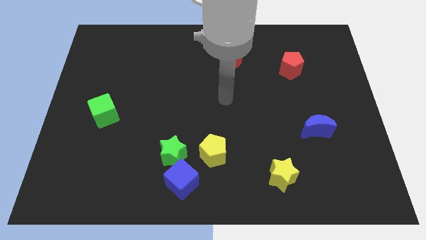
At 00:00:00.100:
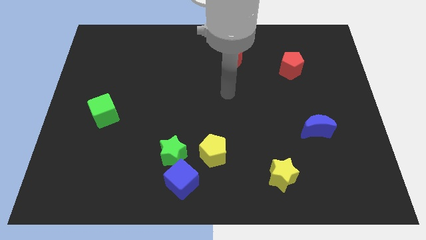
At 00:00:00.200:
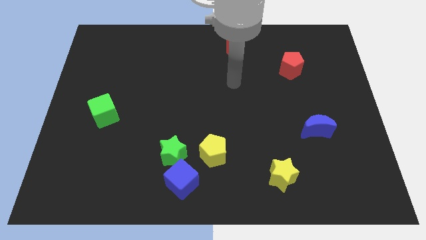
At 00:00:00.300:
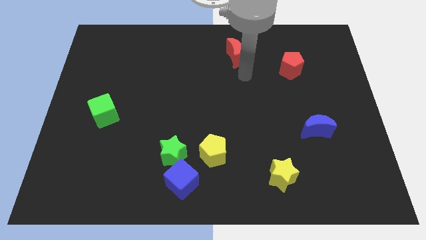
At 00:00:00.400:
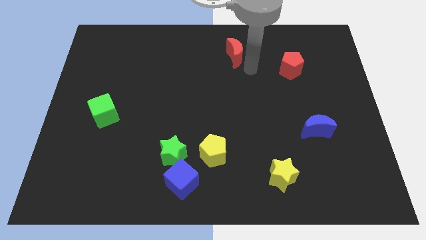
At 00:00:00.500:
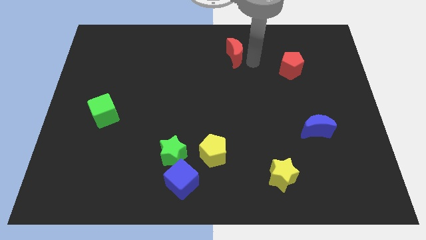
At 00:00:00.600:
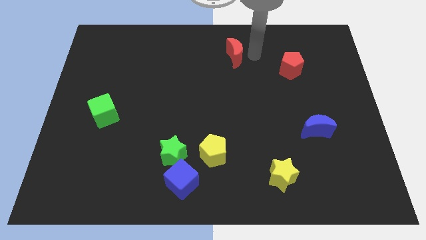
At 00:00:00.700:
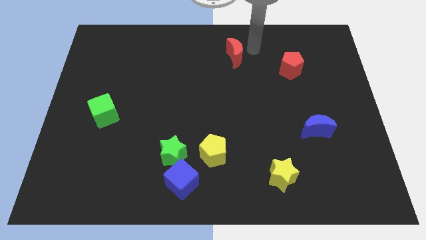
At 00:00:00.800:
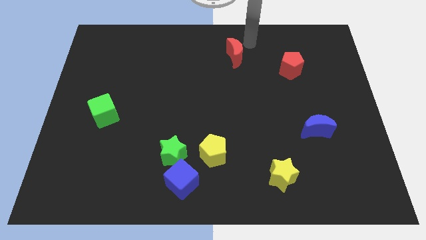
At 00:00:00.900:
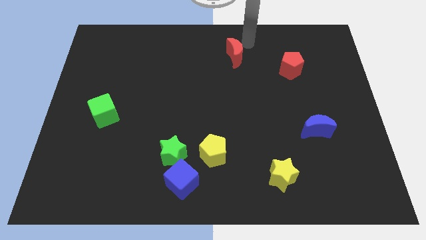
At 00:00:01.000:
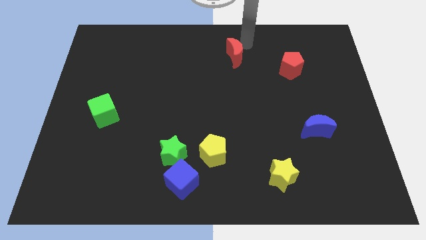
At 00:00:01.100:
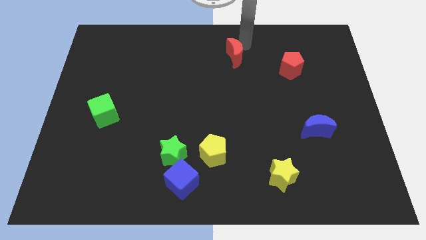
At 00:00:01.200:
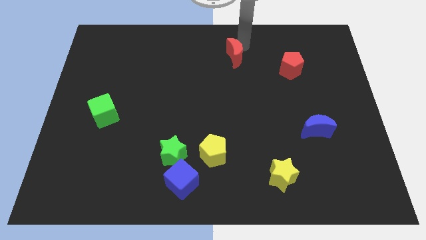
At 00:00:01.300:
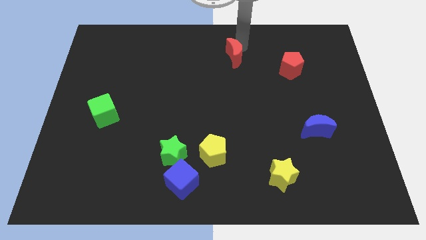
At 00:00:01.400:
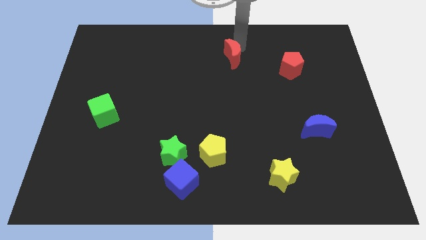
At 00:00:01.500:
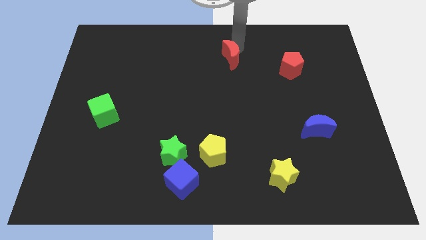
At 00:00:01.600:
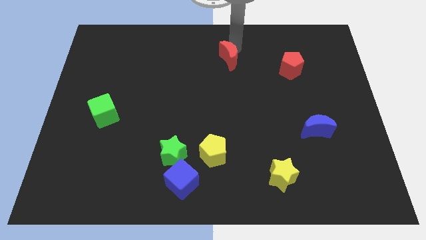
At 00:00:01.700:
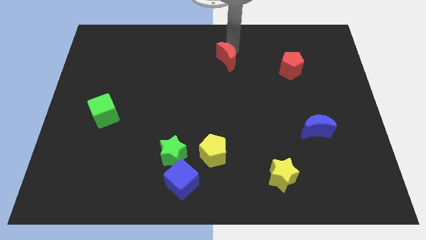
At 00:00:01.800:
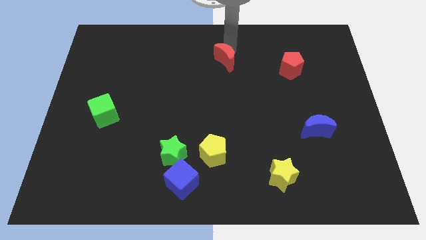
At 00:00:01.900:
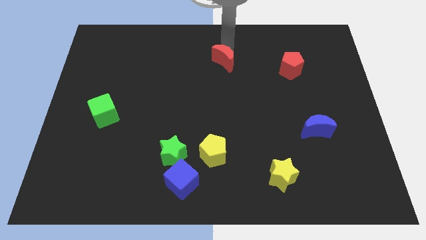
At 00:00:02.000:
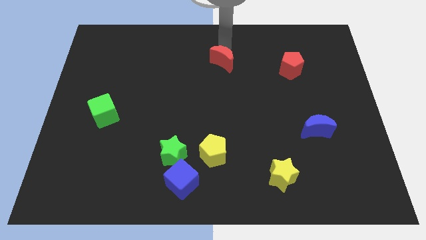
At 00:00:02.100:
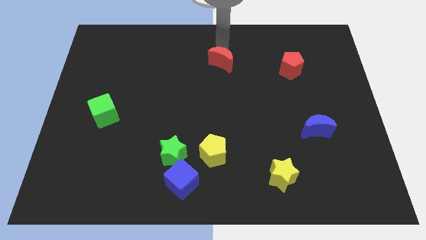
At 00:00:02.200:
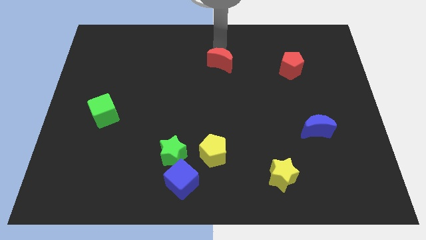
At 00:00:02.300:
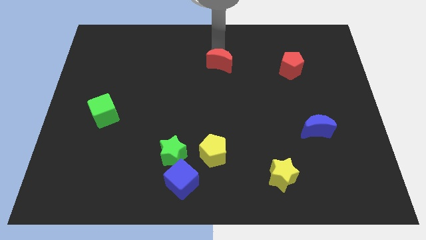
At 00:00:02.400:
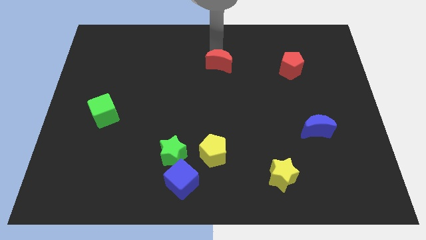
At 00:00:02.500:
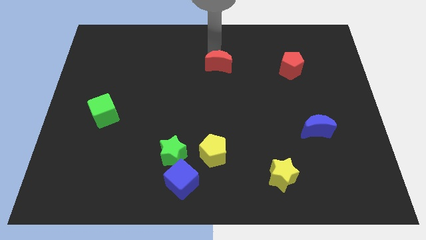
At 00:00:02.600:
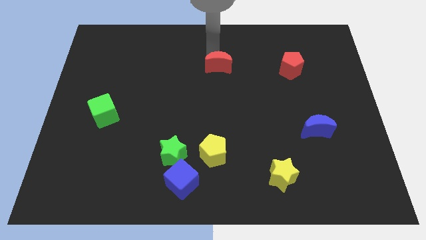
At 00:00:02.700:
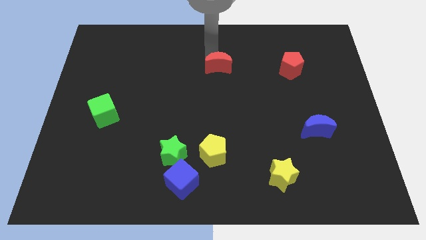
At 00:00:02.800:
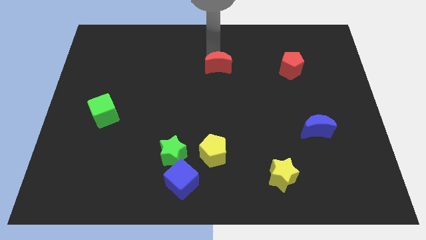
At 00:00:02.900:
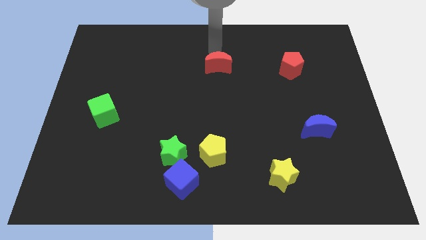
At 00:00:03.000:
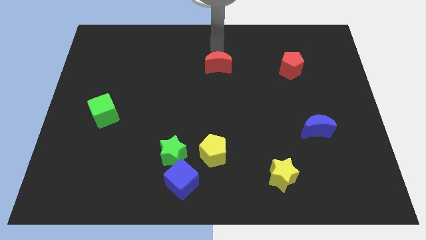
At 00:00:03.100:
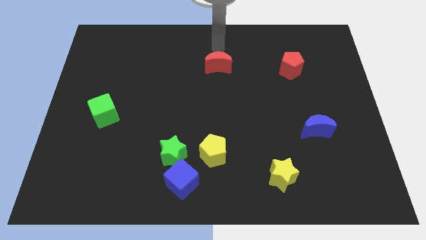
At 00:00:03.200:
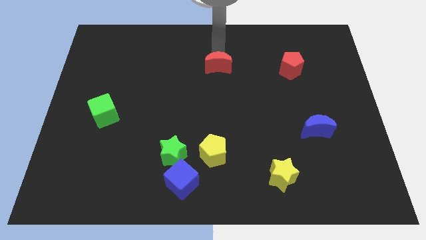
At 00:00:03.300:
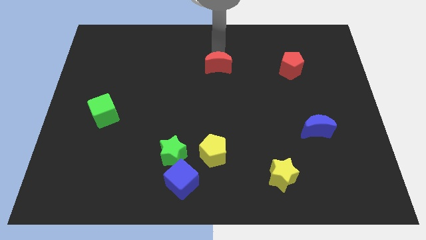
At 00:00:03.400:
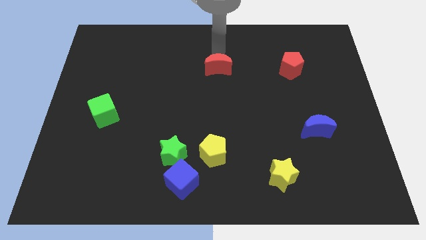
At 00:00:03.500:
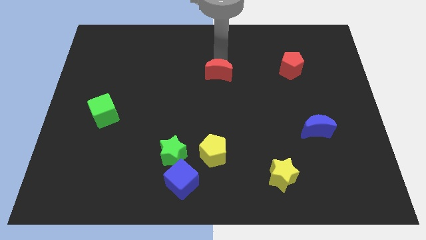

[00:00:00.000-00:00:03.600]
slightly push the red moon down and left

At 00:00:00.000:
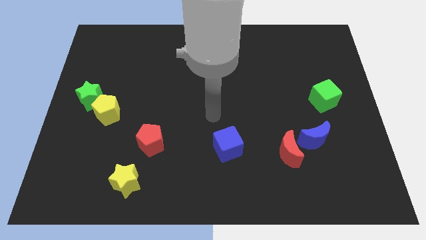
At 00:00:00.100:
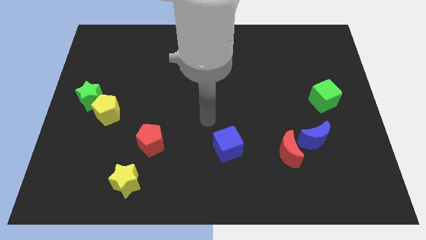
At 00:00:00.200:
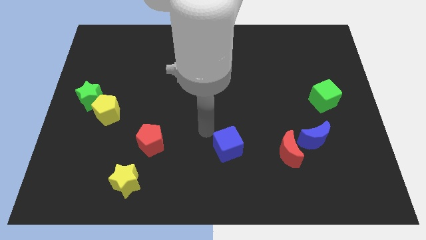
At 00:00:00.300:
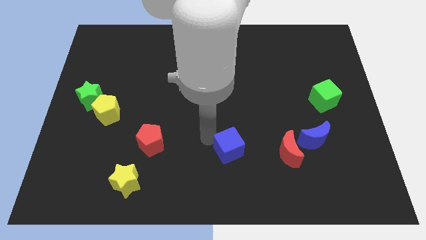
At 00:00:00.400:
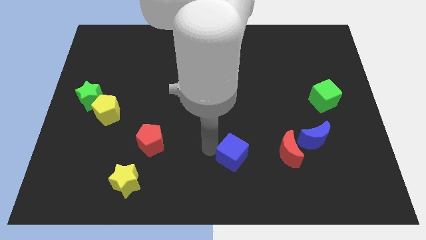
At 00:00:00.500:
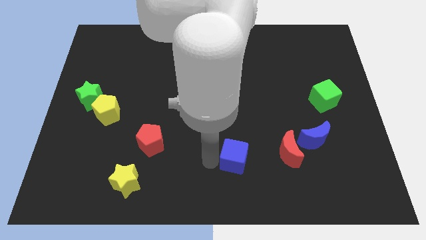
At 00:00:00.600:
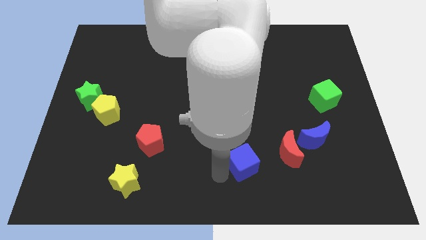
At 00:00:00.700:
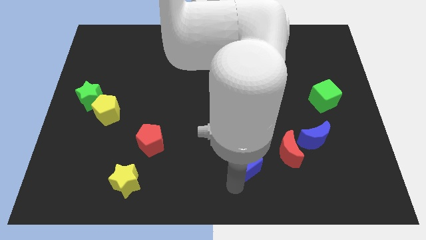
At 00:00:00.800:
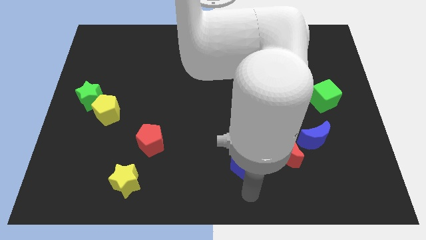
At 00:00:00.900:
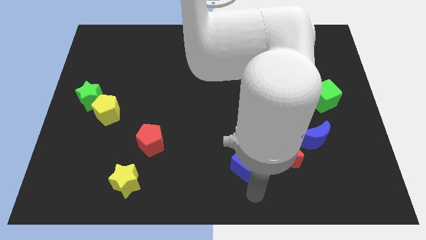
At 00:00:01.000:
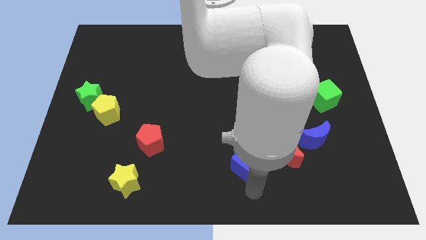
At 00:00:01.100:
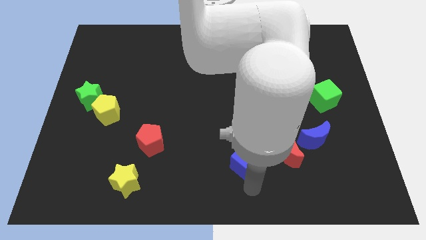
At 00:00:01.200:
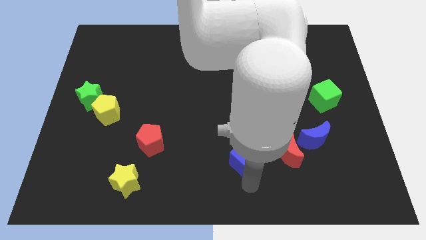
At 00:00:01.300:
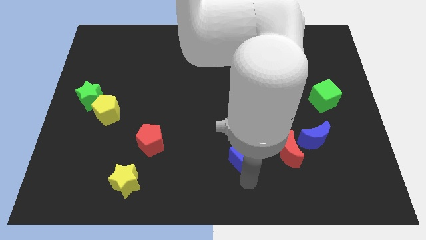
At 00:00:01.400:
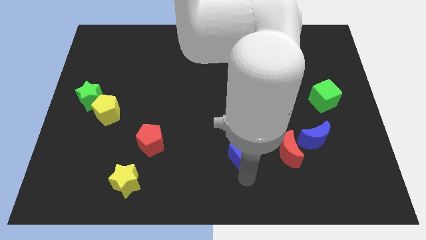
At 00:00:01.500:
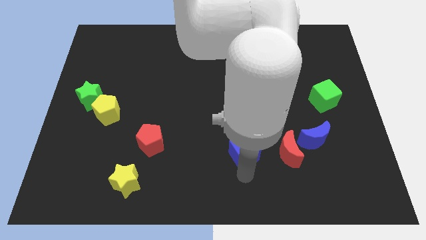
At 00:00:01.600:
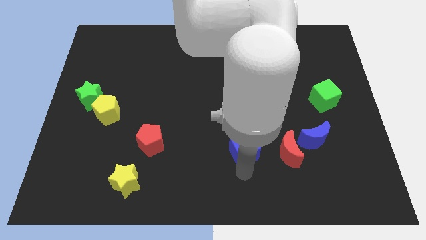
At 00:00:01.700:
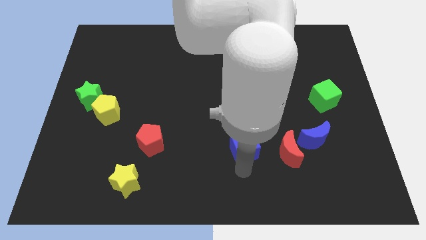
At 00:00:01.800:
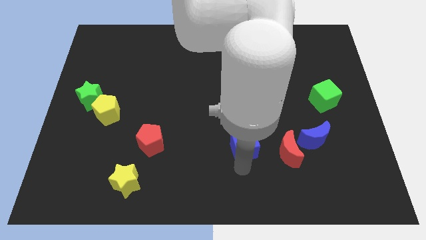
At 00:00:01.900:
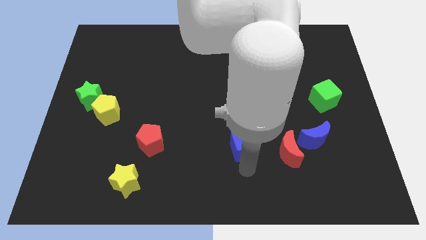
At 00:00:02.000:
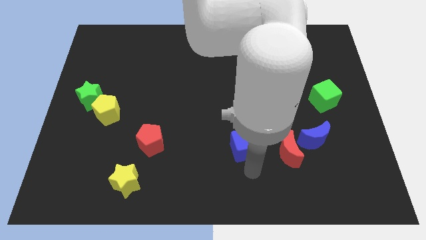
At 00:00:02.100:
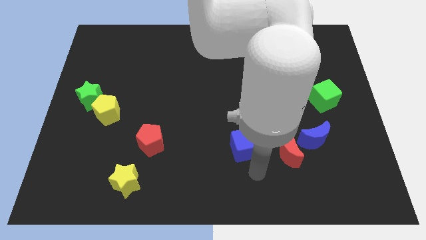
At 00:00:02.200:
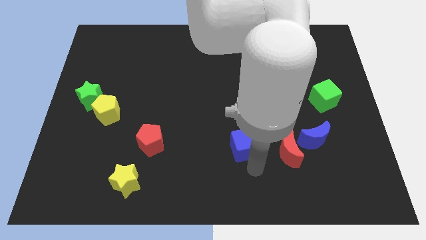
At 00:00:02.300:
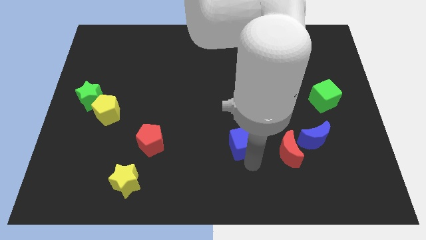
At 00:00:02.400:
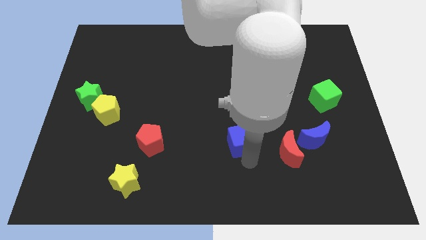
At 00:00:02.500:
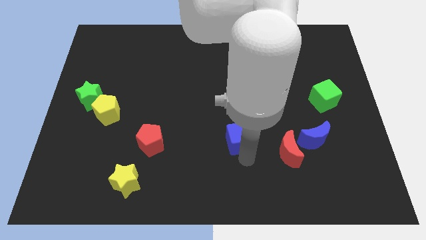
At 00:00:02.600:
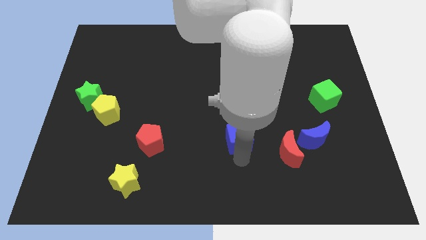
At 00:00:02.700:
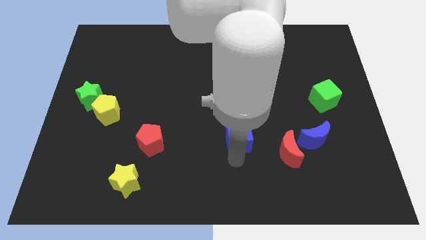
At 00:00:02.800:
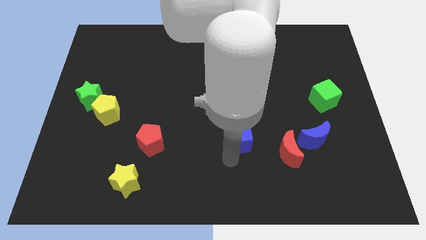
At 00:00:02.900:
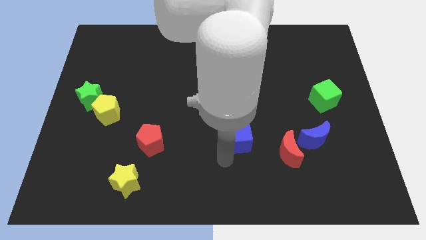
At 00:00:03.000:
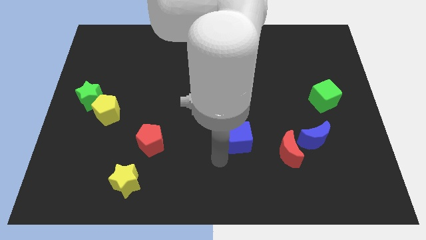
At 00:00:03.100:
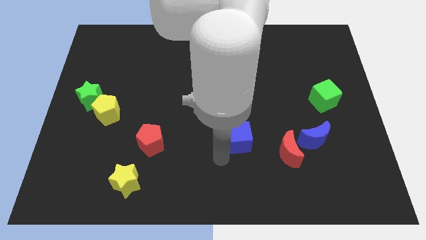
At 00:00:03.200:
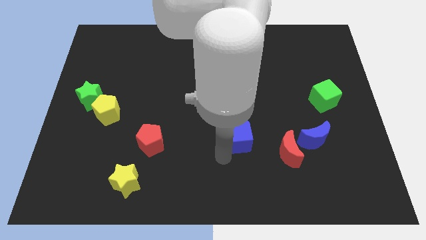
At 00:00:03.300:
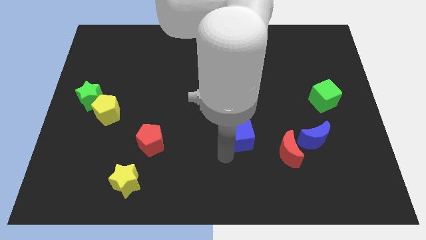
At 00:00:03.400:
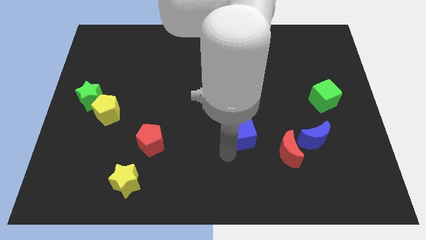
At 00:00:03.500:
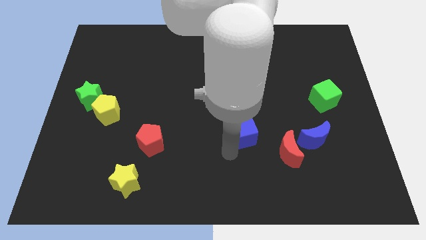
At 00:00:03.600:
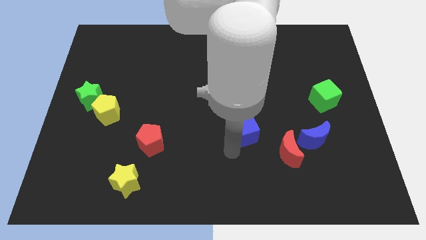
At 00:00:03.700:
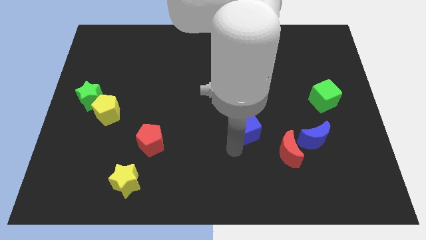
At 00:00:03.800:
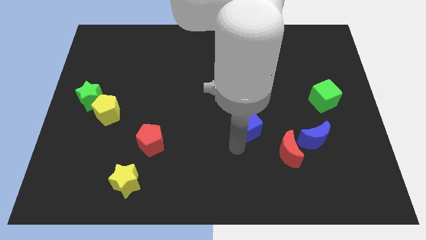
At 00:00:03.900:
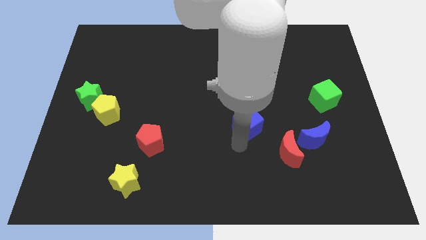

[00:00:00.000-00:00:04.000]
slide the blue cube upwards and to the right diagonally a little
